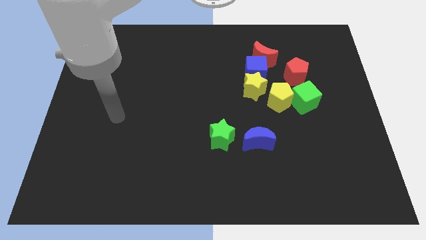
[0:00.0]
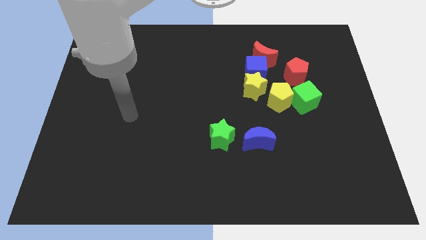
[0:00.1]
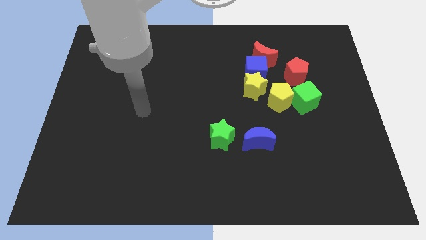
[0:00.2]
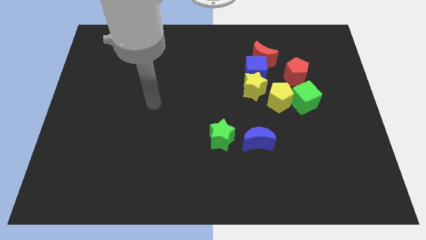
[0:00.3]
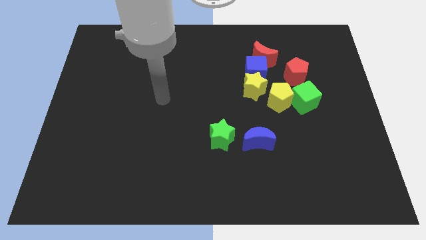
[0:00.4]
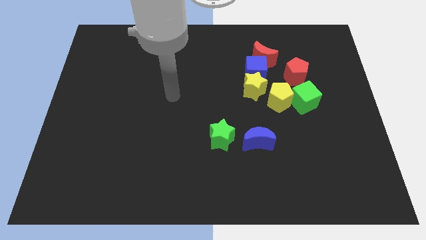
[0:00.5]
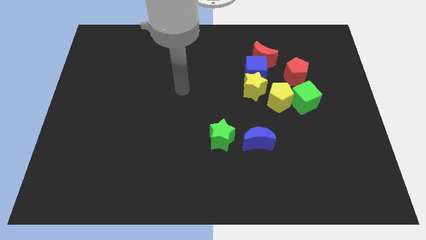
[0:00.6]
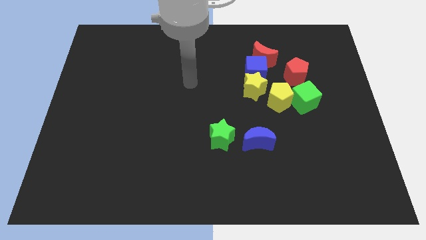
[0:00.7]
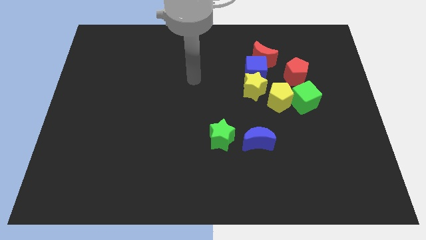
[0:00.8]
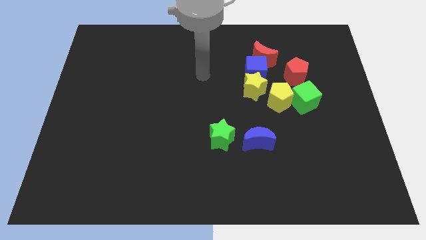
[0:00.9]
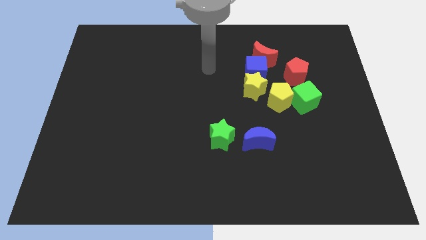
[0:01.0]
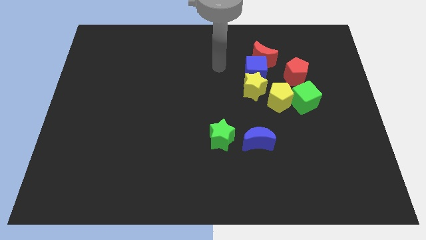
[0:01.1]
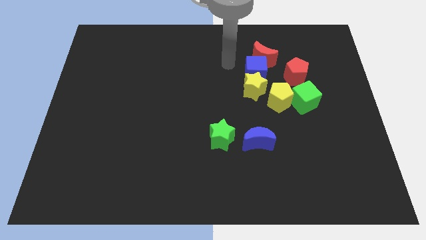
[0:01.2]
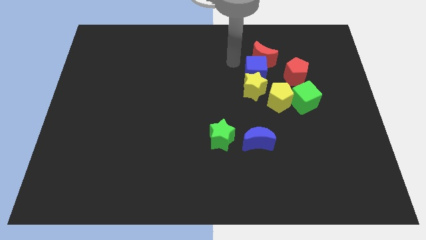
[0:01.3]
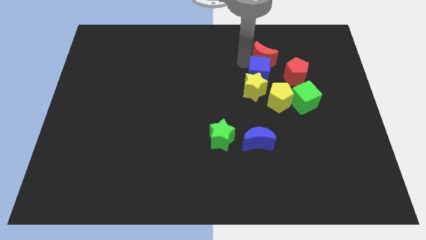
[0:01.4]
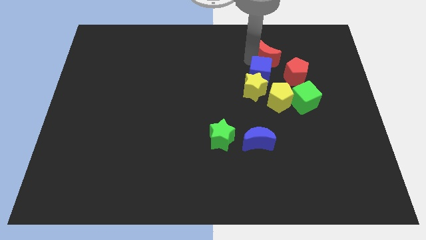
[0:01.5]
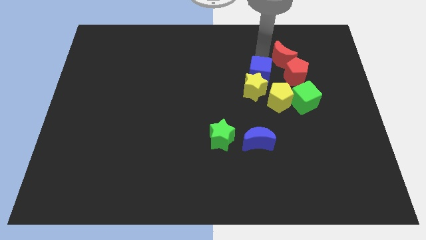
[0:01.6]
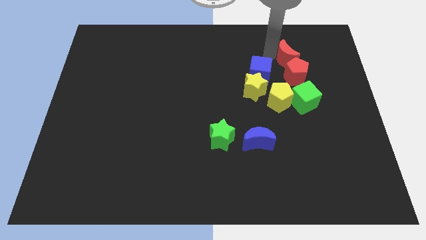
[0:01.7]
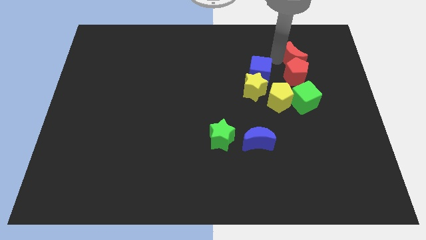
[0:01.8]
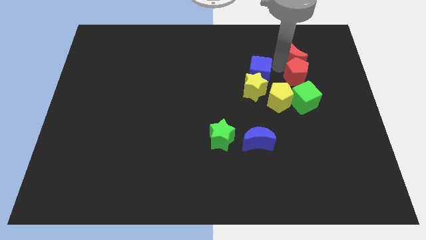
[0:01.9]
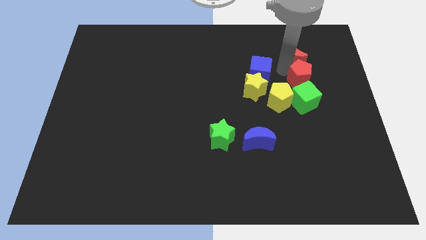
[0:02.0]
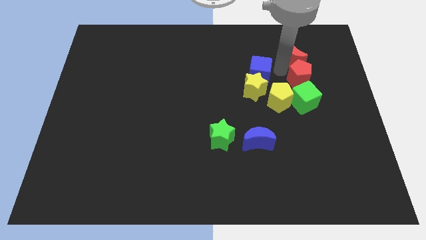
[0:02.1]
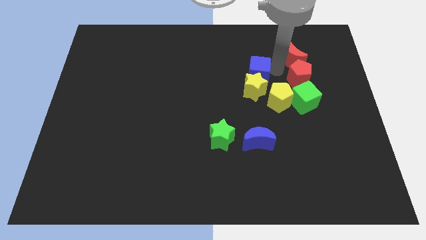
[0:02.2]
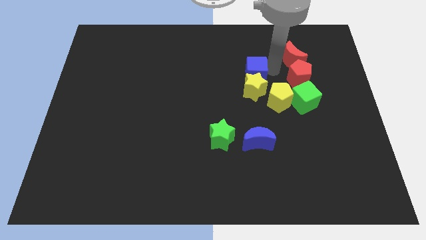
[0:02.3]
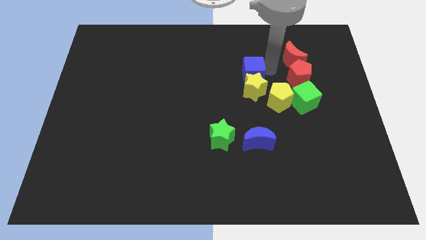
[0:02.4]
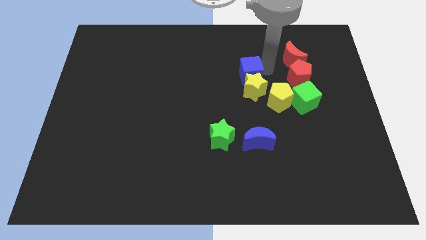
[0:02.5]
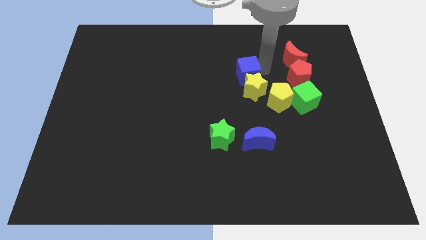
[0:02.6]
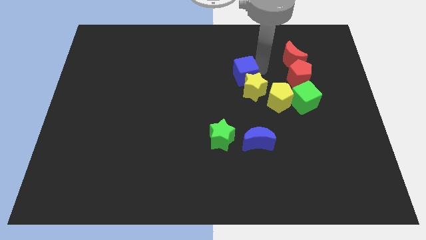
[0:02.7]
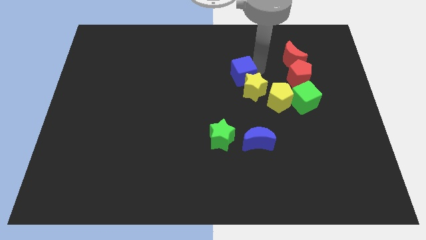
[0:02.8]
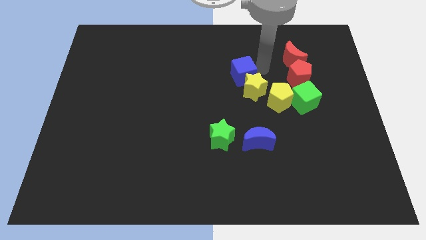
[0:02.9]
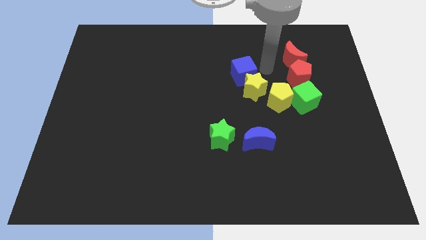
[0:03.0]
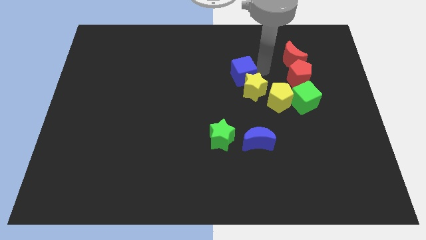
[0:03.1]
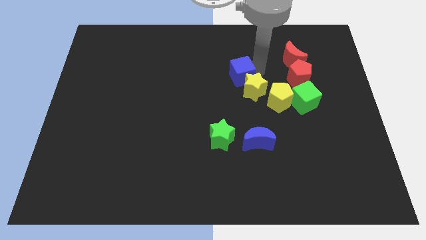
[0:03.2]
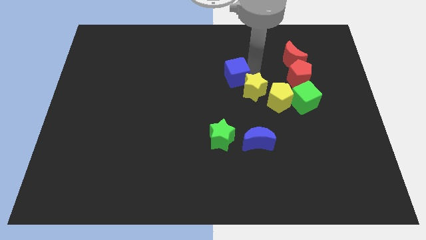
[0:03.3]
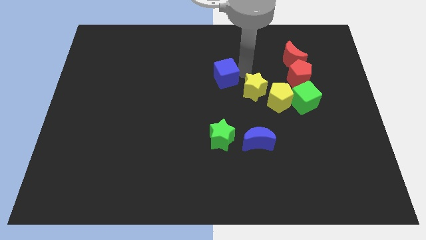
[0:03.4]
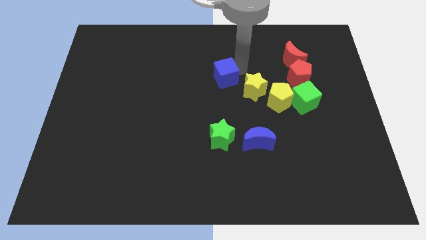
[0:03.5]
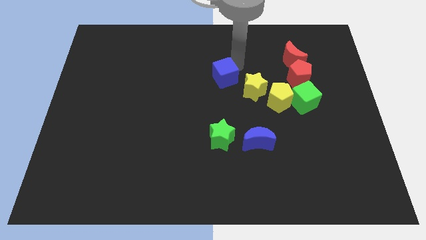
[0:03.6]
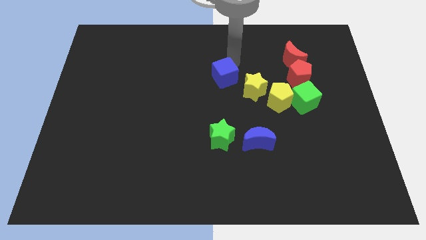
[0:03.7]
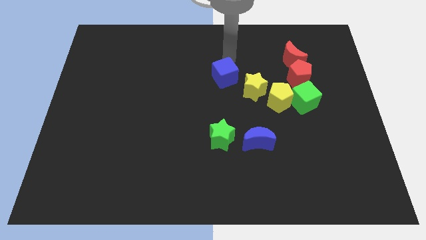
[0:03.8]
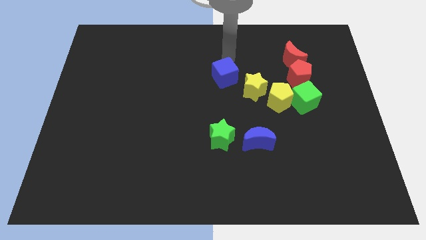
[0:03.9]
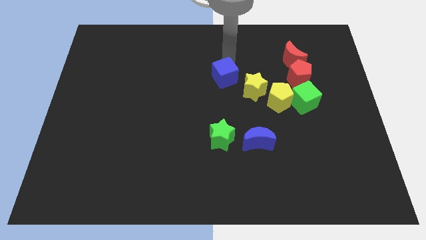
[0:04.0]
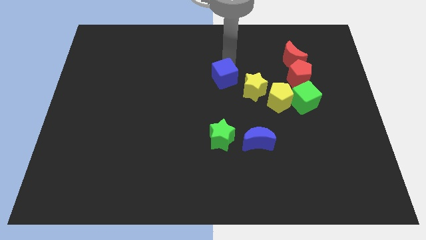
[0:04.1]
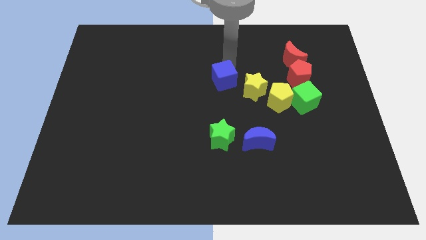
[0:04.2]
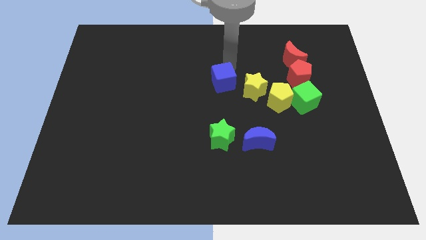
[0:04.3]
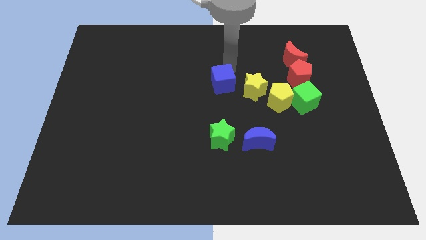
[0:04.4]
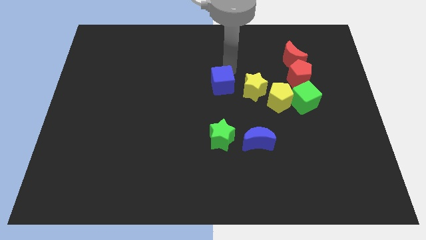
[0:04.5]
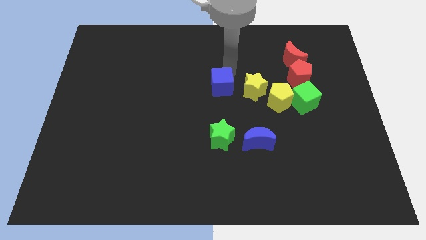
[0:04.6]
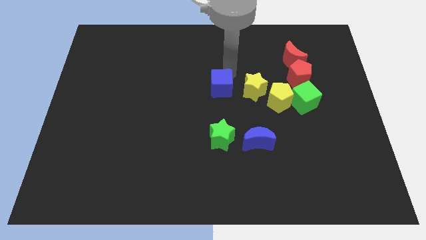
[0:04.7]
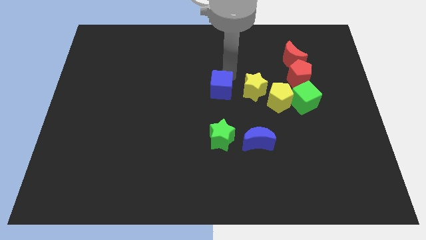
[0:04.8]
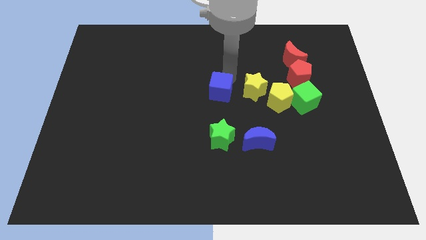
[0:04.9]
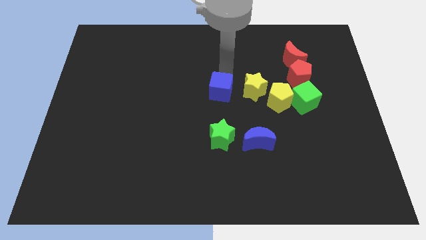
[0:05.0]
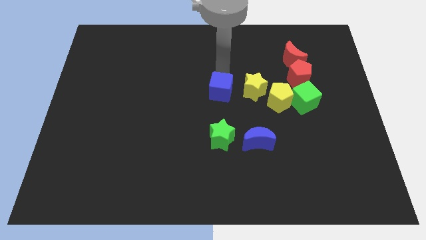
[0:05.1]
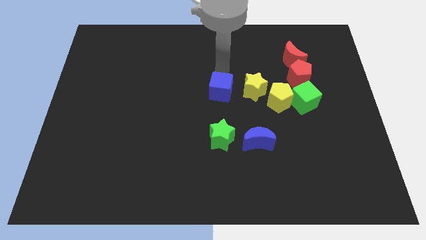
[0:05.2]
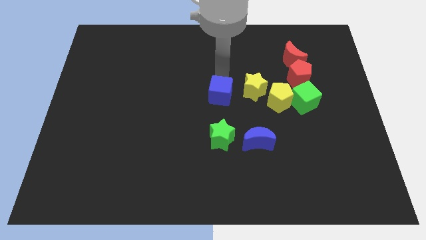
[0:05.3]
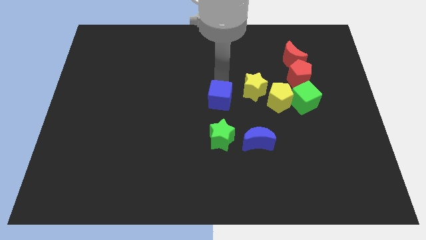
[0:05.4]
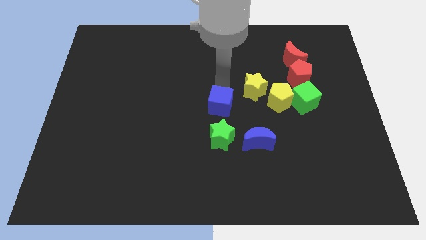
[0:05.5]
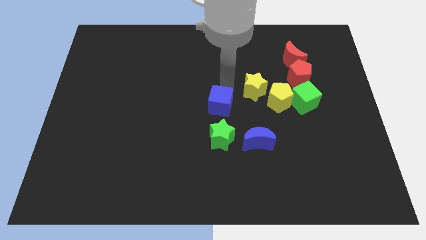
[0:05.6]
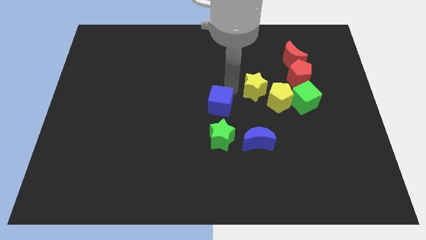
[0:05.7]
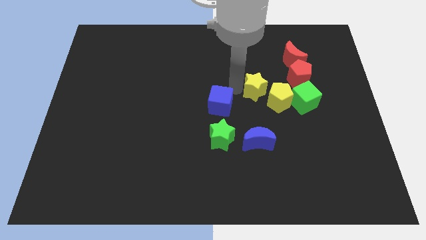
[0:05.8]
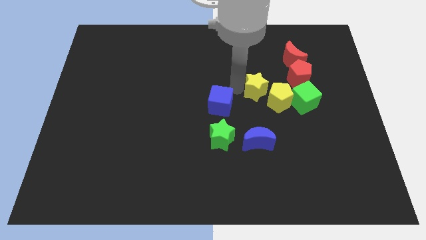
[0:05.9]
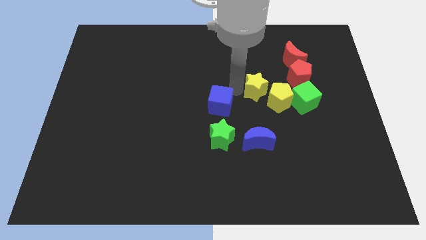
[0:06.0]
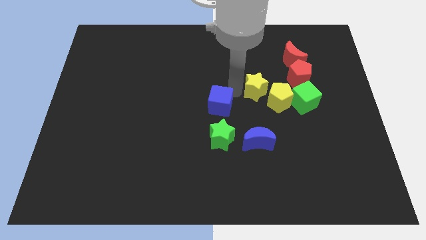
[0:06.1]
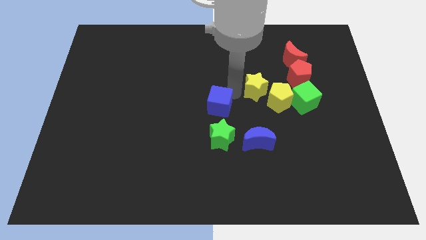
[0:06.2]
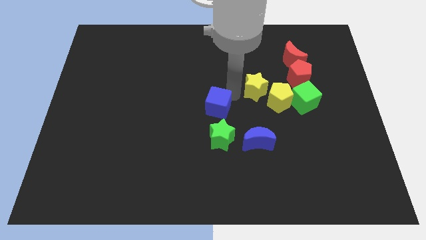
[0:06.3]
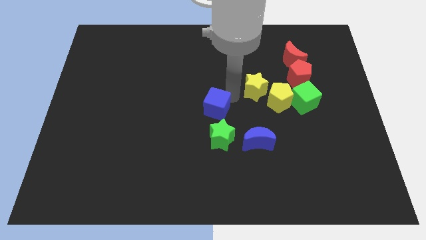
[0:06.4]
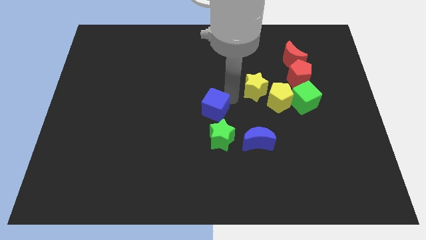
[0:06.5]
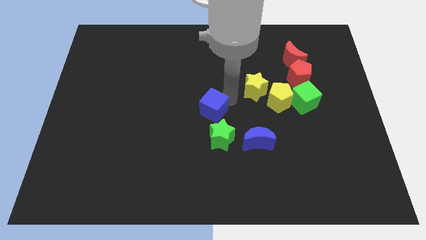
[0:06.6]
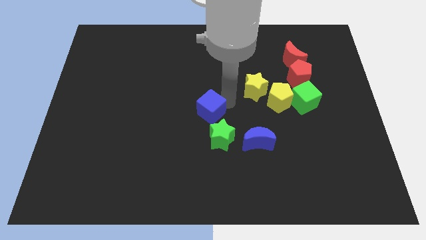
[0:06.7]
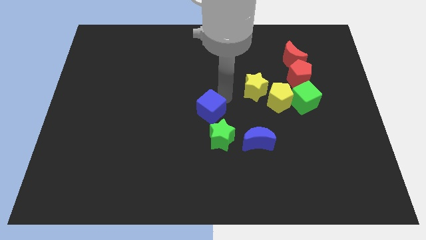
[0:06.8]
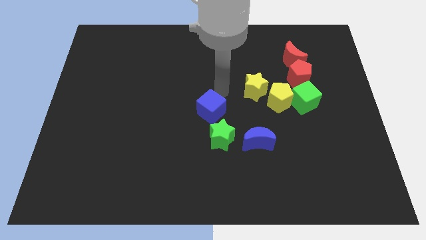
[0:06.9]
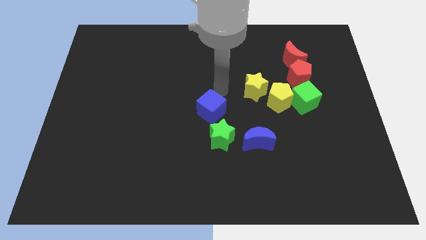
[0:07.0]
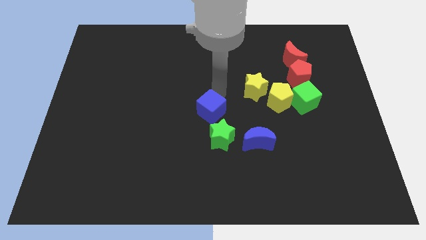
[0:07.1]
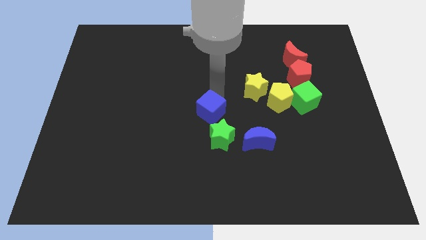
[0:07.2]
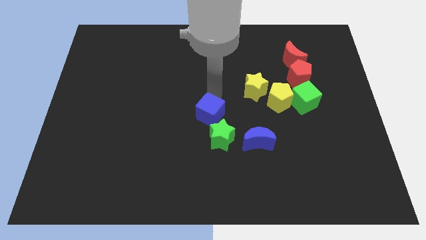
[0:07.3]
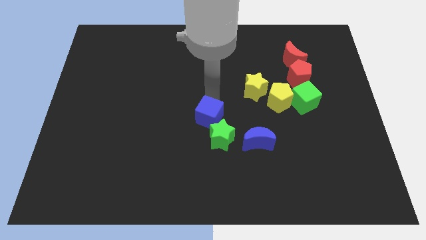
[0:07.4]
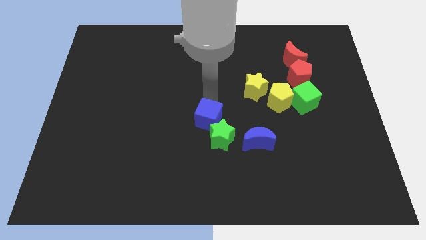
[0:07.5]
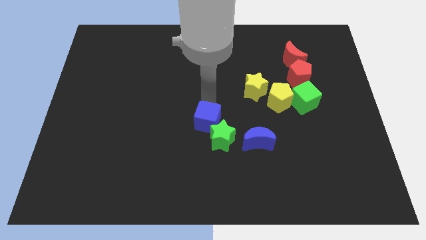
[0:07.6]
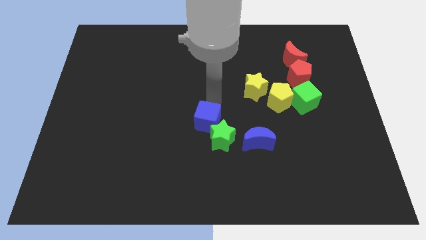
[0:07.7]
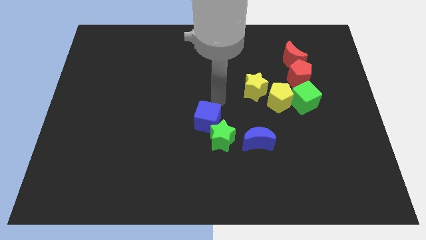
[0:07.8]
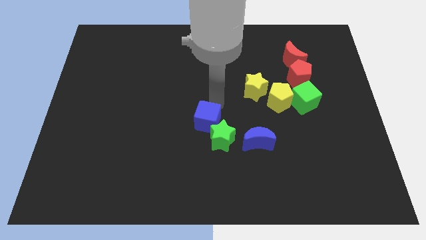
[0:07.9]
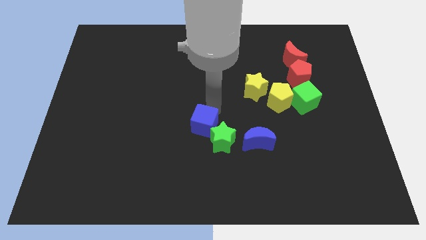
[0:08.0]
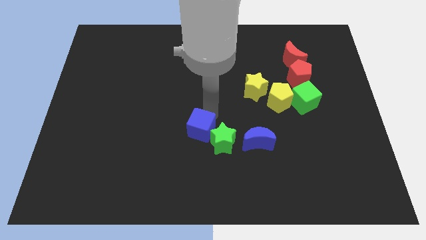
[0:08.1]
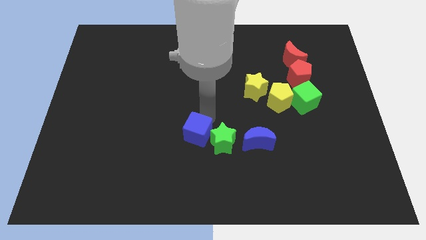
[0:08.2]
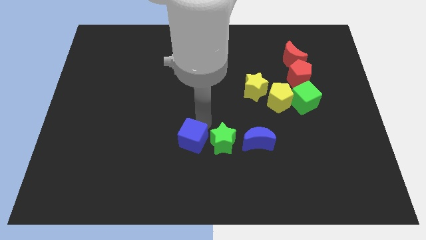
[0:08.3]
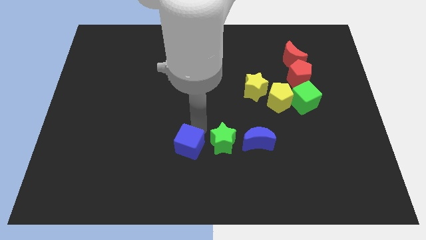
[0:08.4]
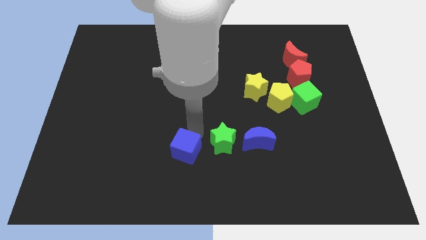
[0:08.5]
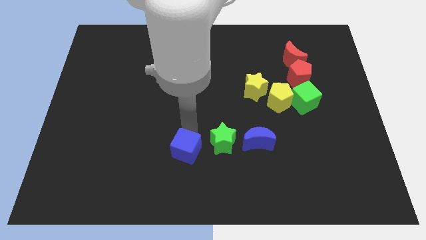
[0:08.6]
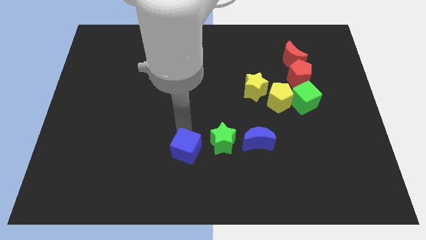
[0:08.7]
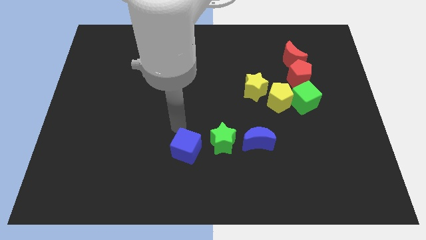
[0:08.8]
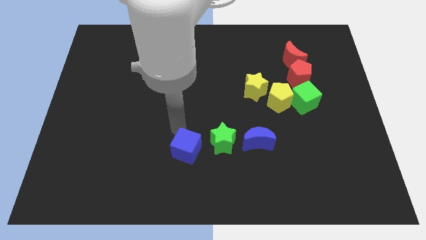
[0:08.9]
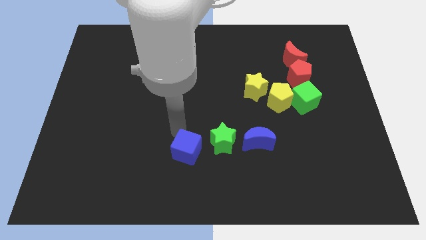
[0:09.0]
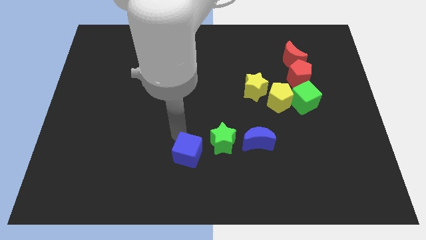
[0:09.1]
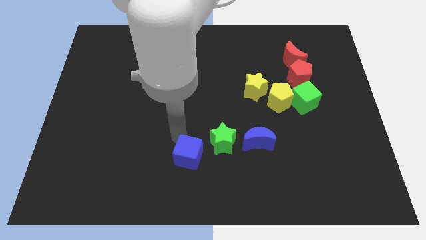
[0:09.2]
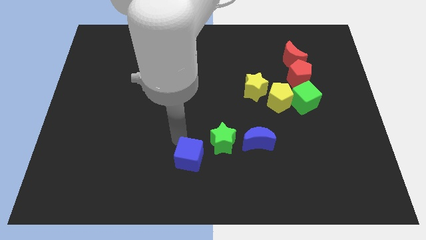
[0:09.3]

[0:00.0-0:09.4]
slide the blue cube to the bottom
